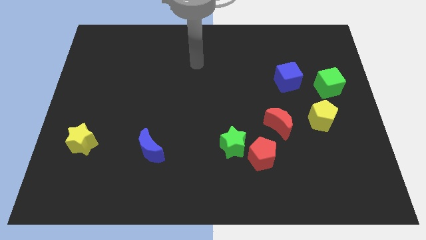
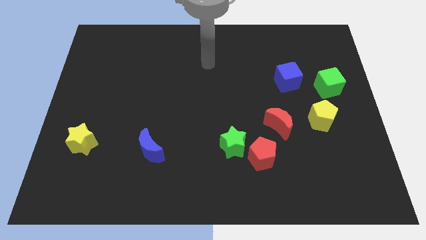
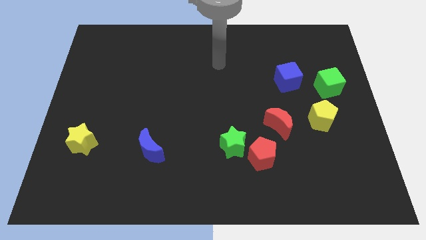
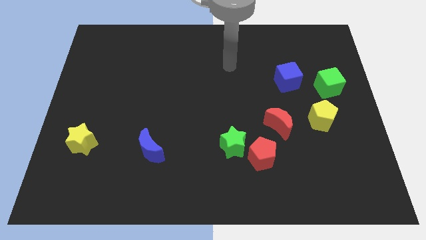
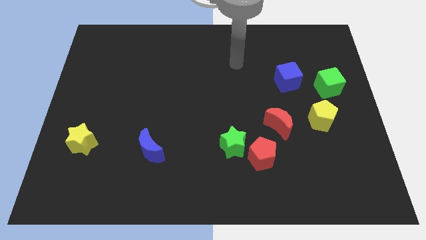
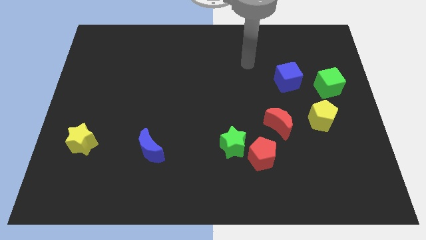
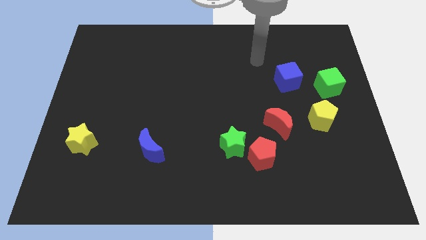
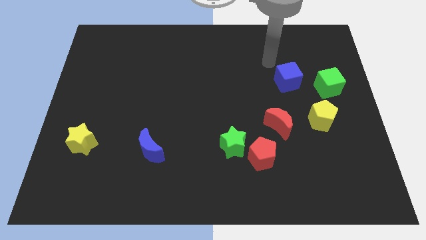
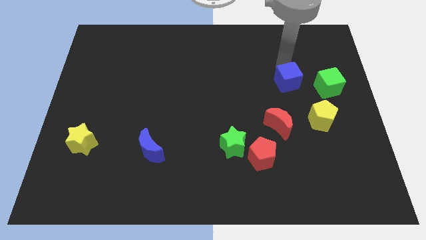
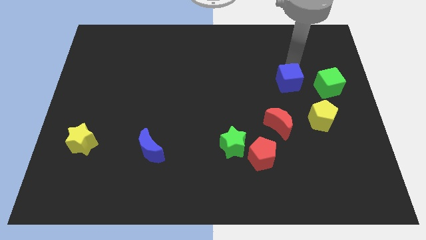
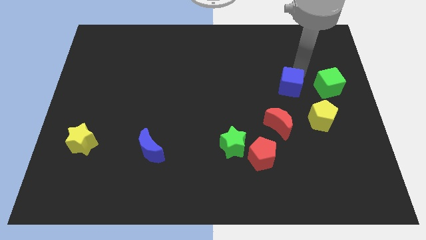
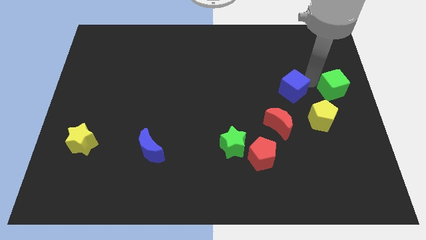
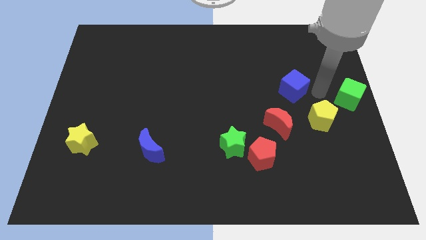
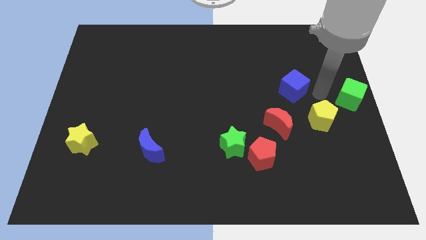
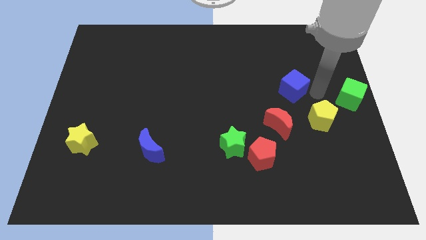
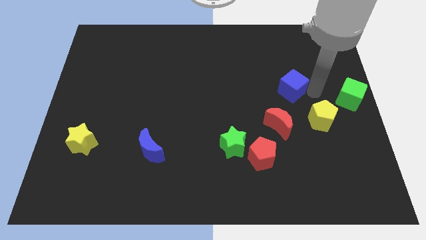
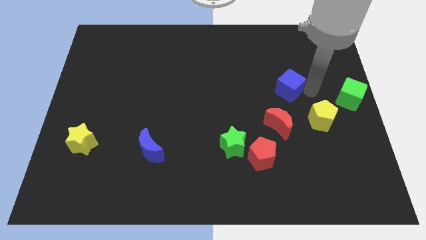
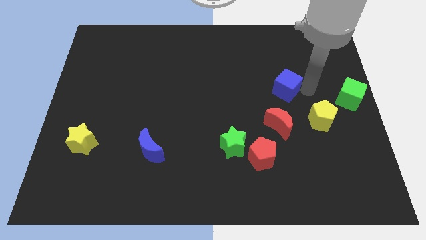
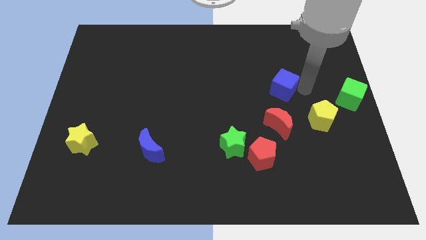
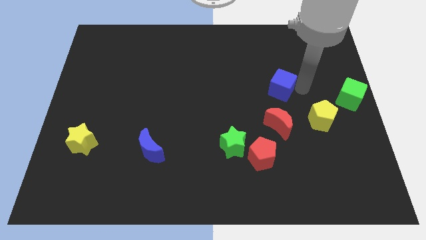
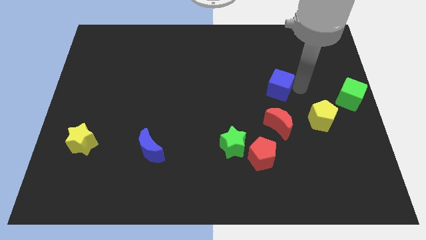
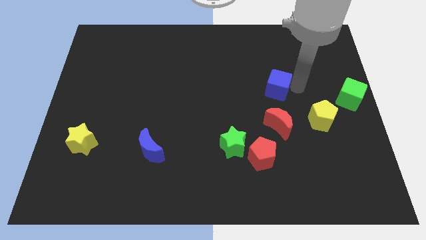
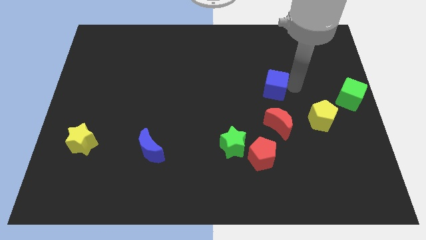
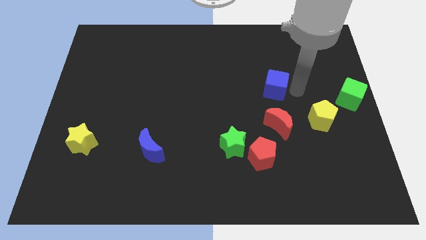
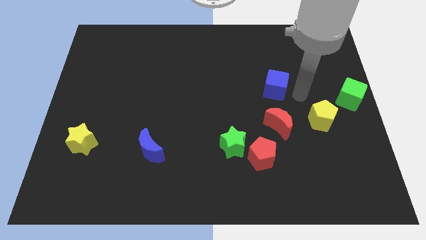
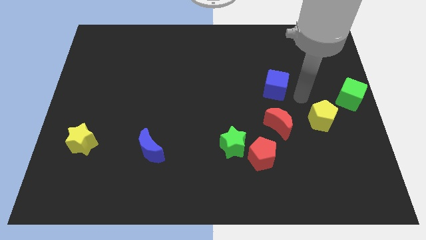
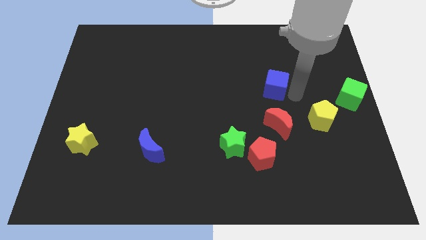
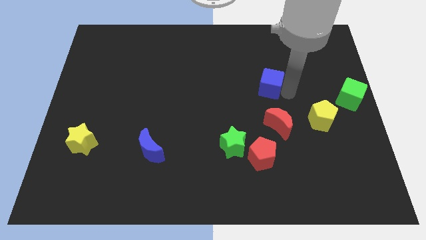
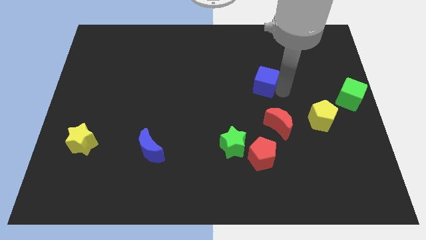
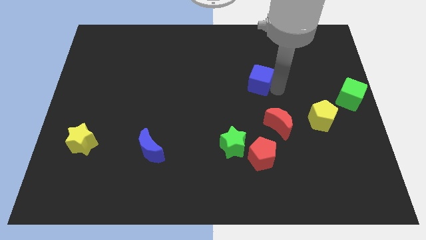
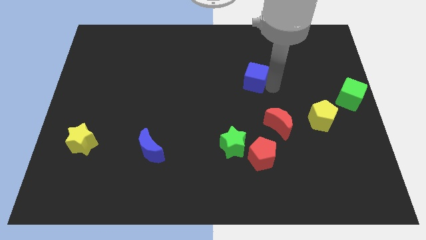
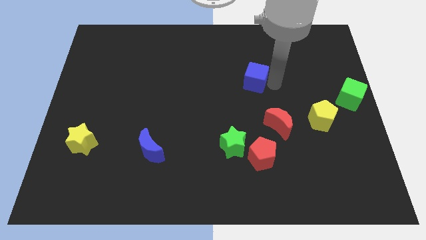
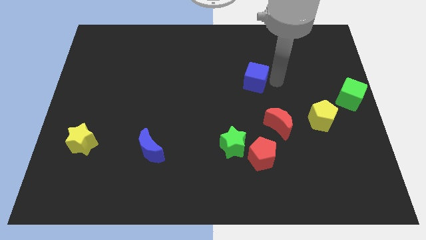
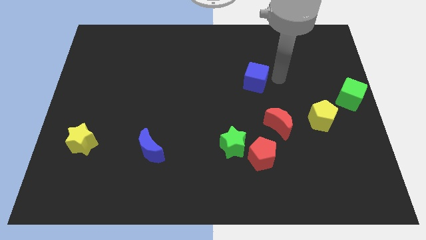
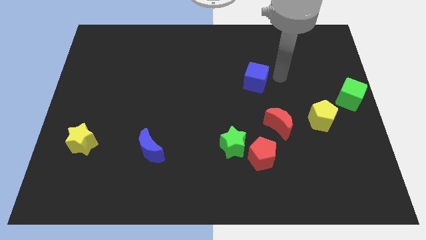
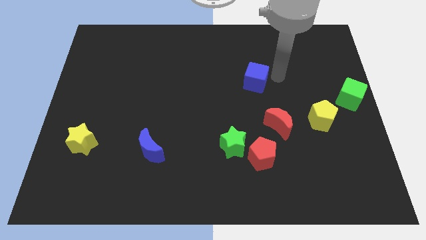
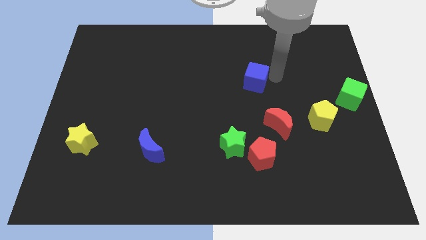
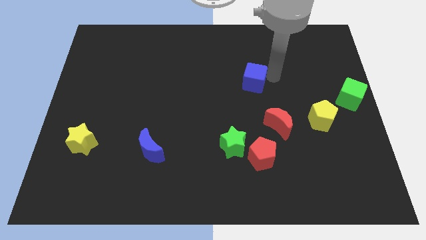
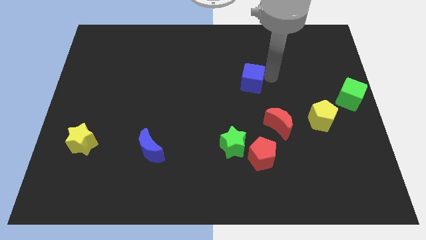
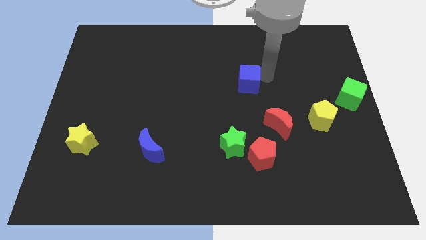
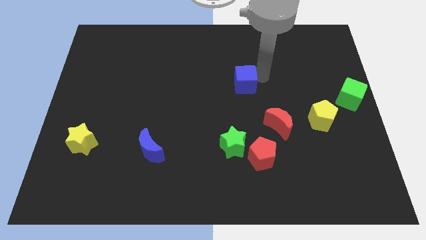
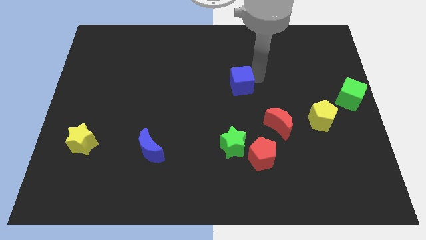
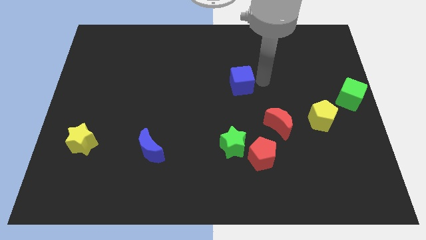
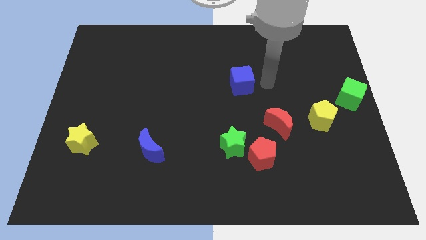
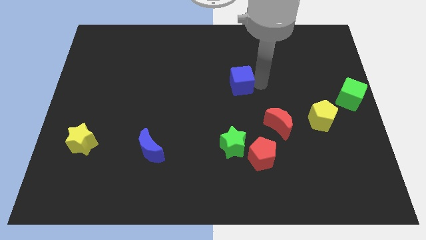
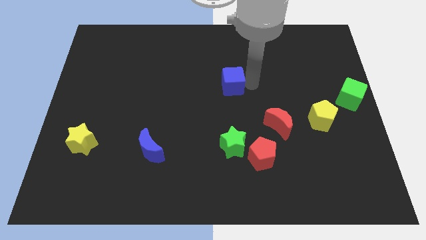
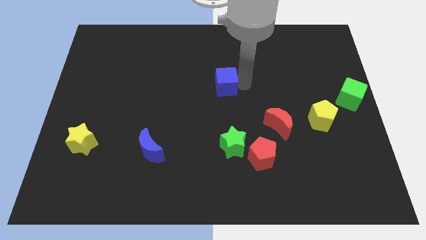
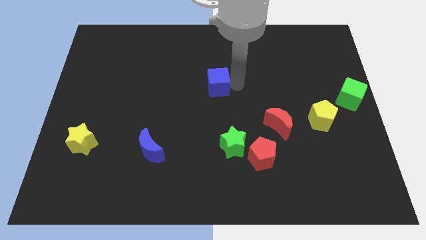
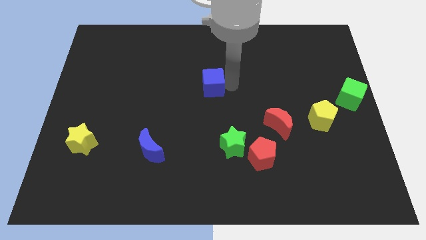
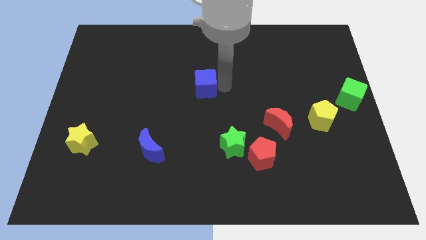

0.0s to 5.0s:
slide the blue cube to the left

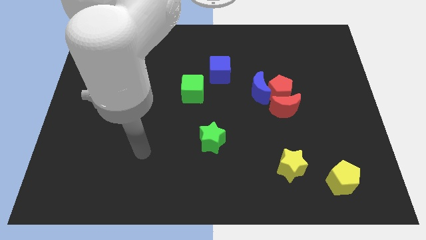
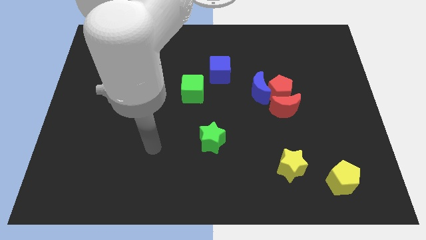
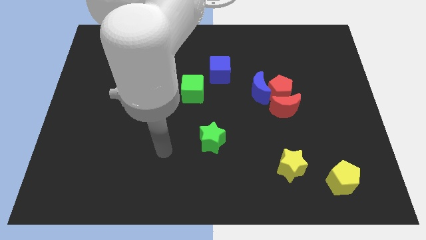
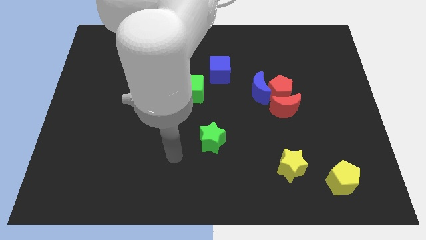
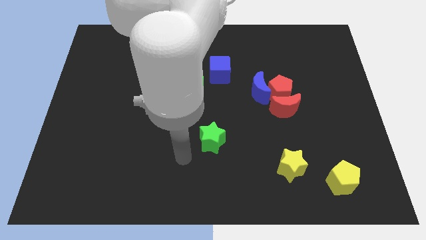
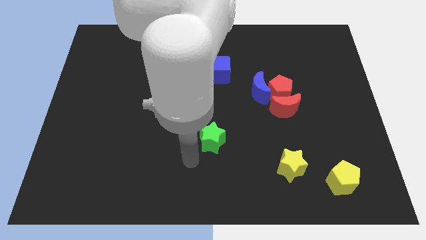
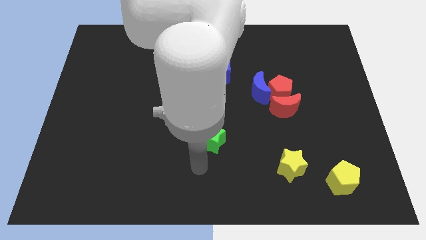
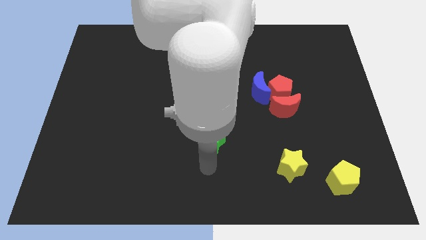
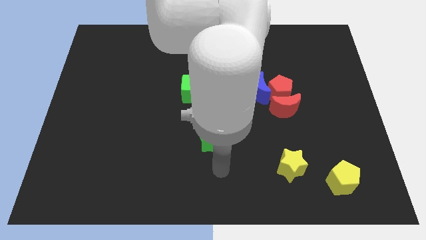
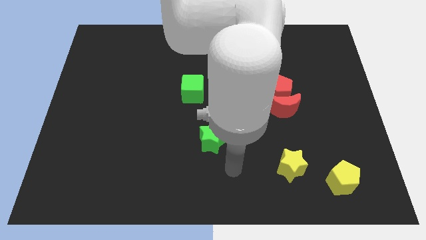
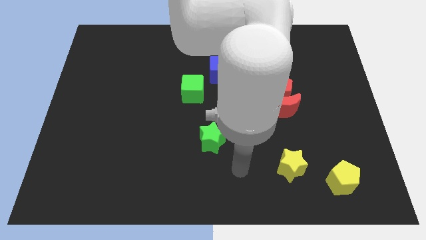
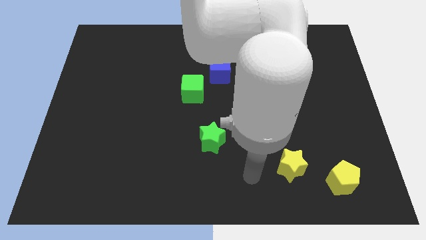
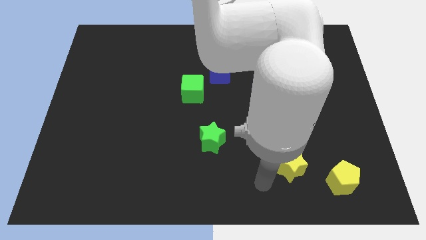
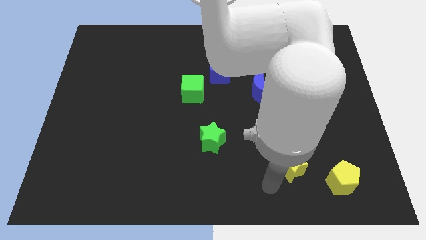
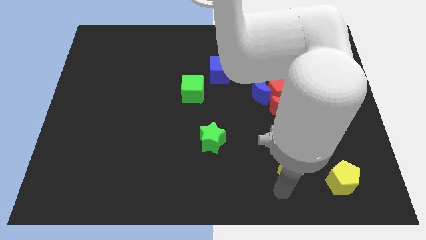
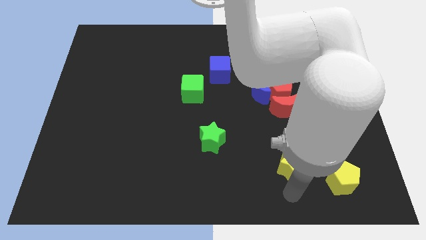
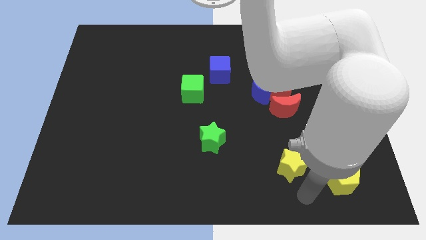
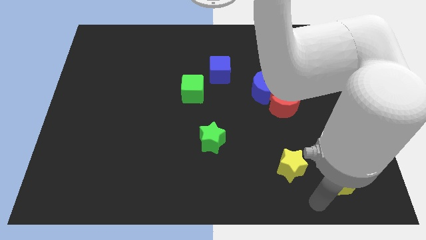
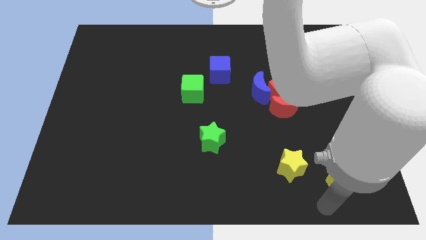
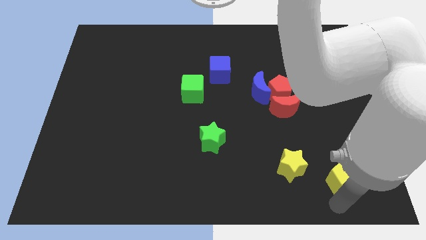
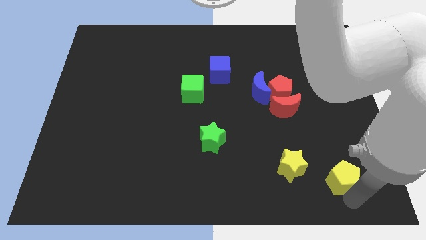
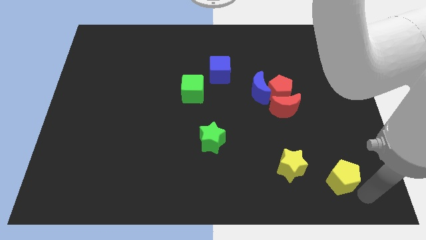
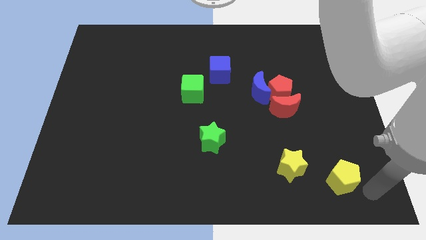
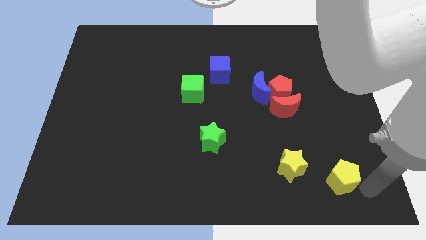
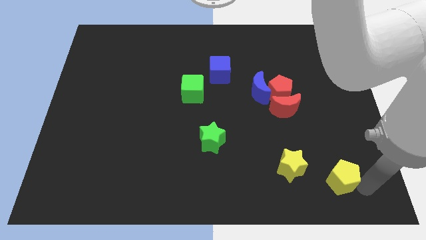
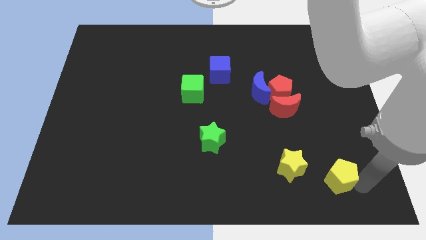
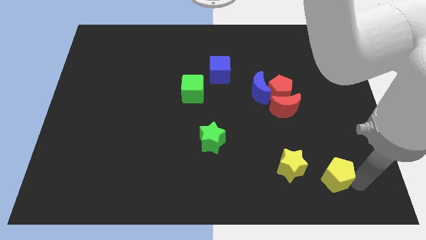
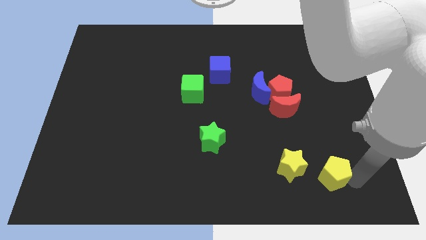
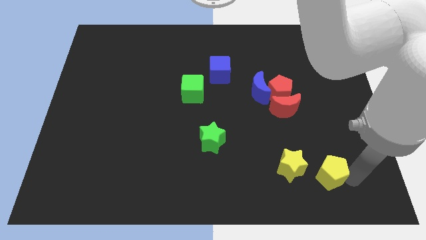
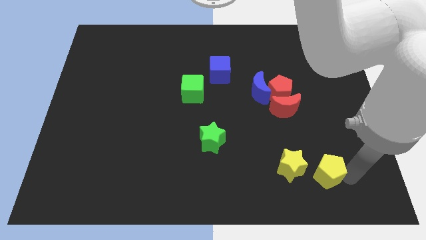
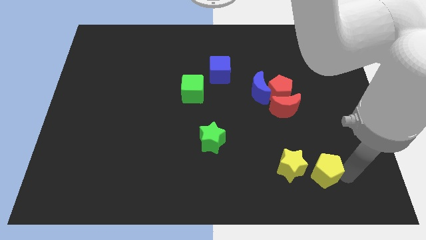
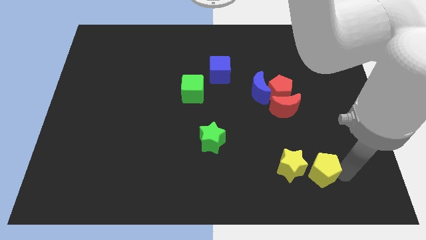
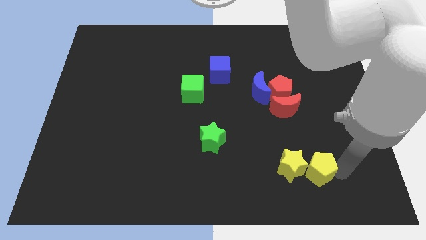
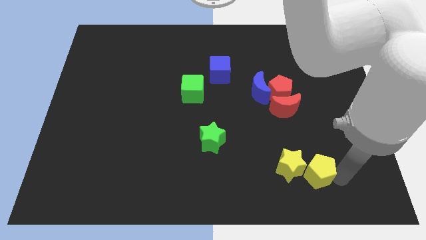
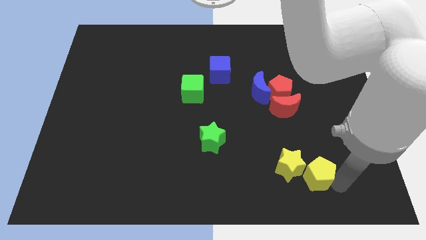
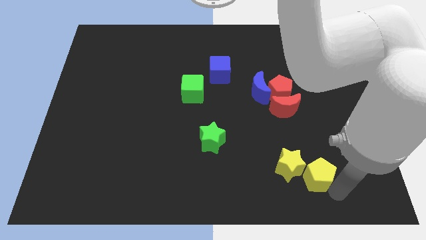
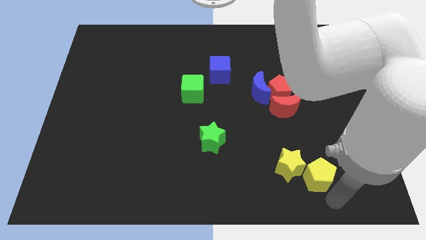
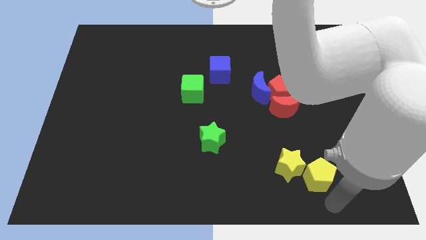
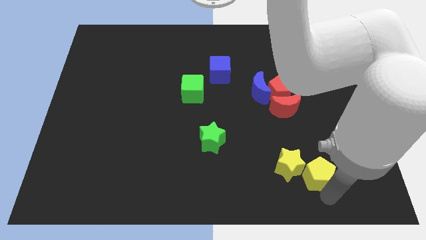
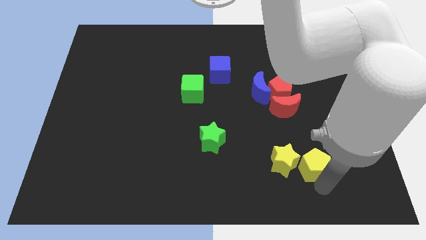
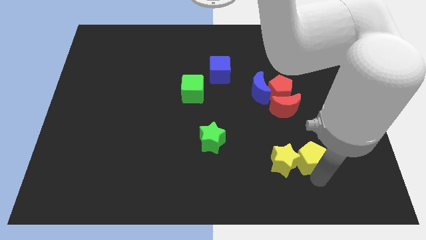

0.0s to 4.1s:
move the yellow pentagon somewhat upwards and left diagonally
